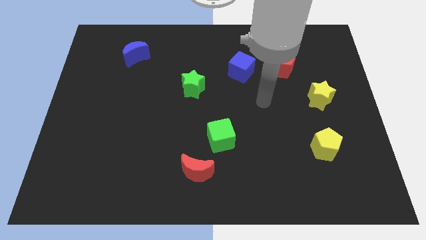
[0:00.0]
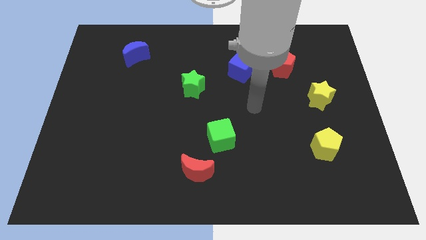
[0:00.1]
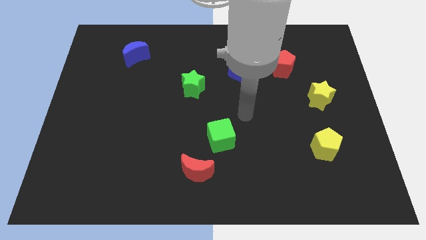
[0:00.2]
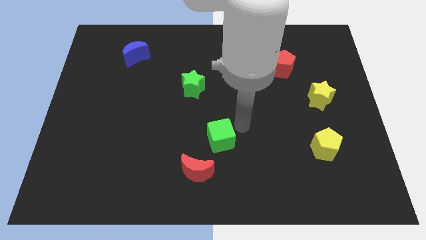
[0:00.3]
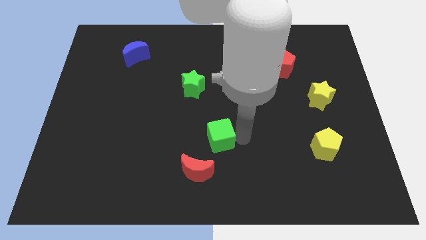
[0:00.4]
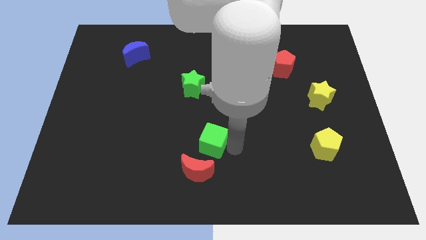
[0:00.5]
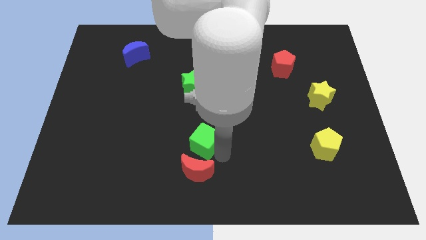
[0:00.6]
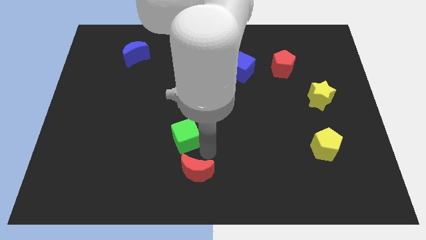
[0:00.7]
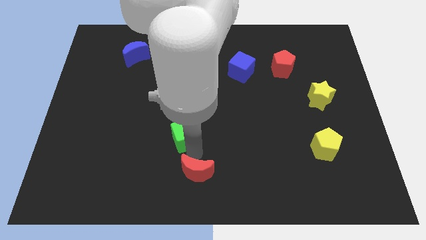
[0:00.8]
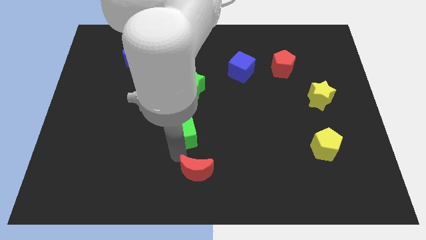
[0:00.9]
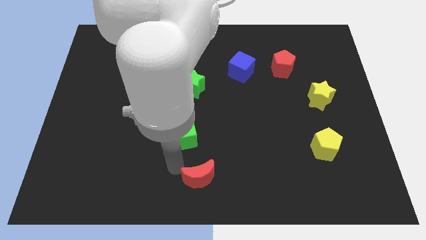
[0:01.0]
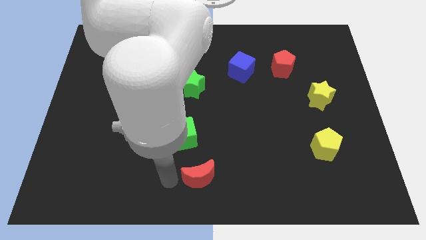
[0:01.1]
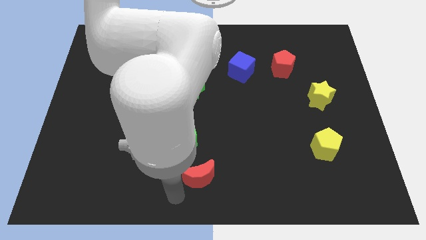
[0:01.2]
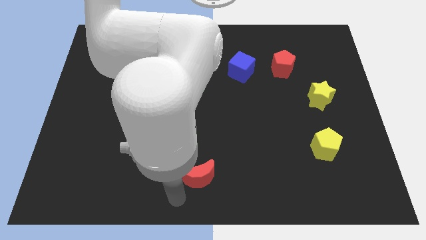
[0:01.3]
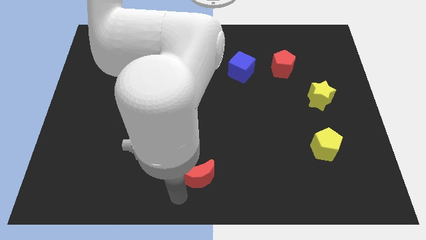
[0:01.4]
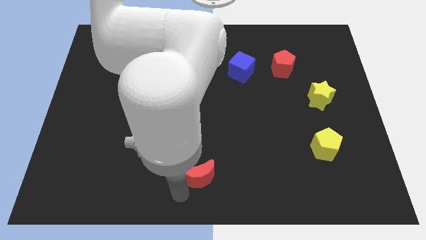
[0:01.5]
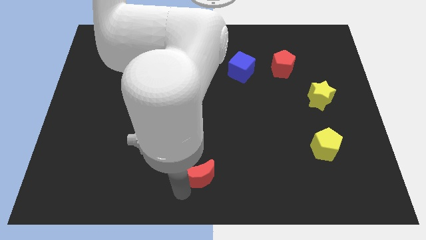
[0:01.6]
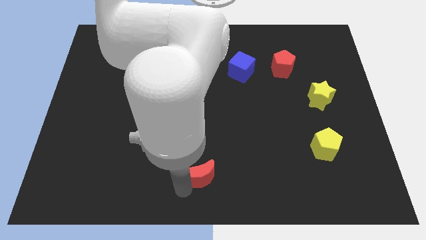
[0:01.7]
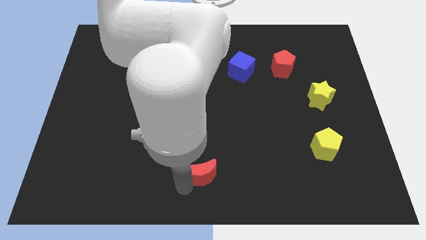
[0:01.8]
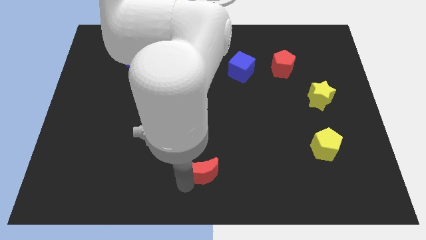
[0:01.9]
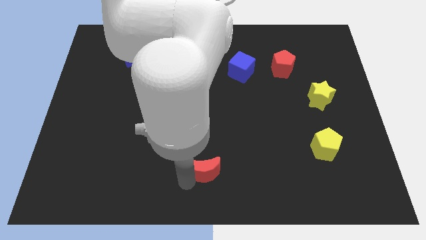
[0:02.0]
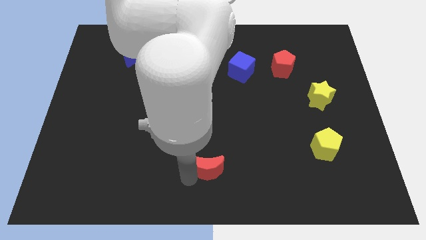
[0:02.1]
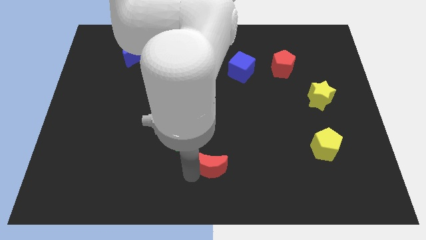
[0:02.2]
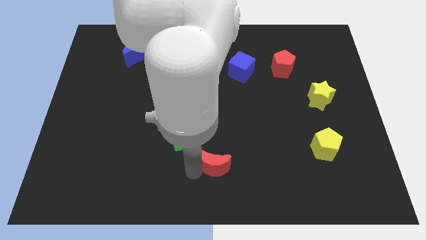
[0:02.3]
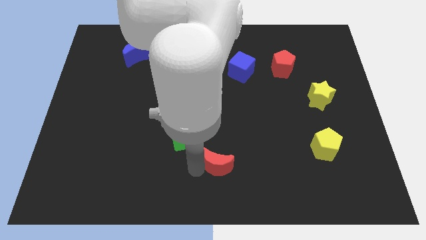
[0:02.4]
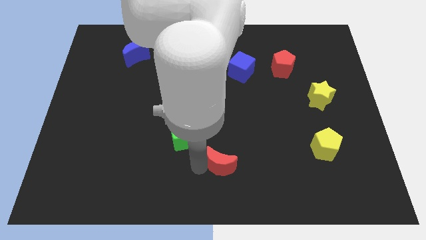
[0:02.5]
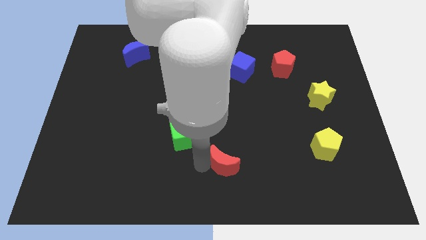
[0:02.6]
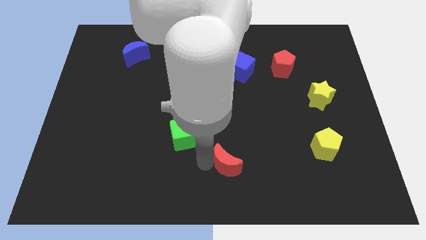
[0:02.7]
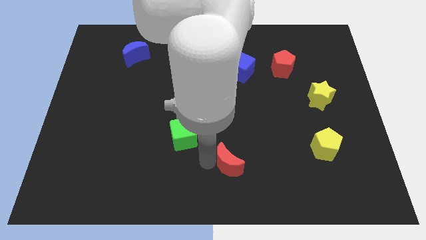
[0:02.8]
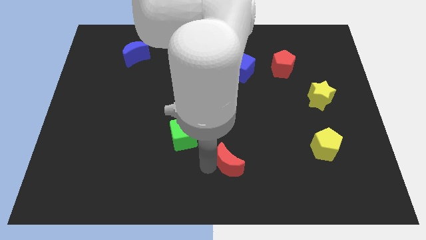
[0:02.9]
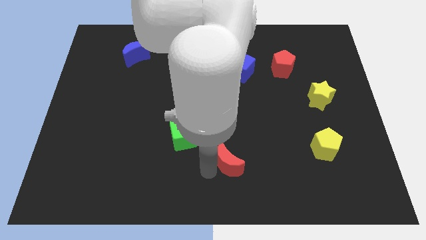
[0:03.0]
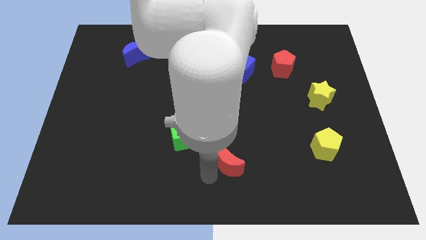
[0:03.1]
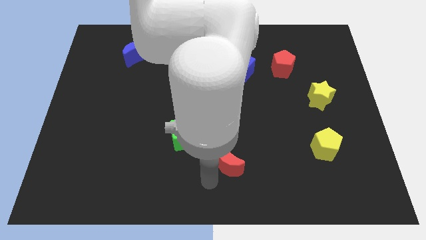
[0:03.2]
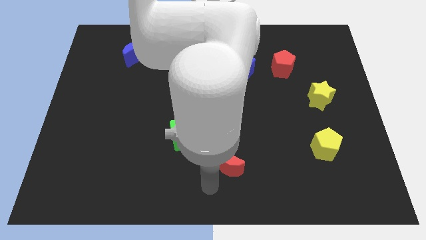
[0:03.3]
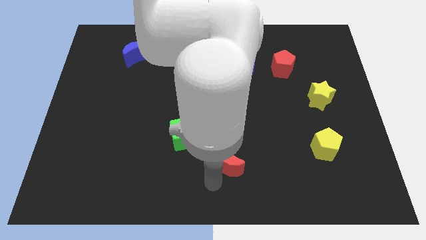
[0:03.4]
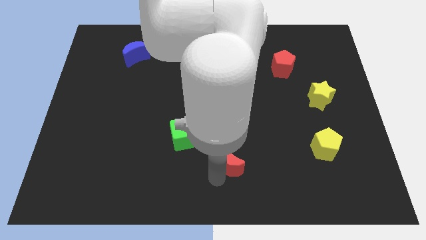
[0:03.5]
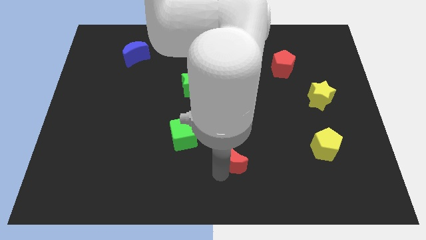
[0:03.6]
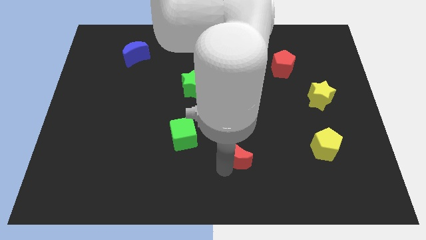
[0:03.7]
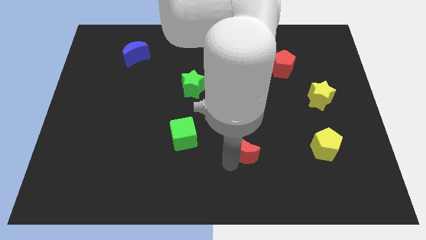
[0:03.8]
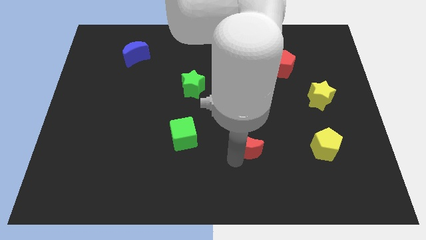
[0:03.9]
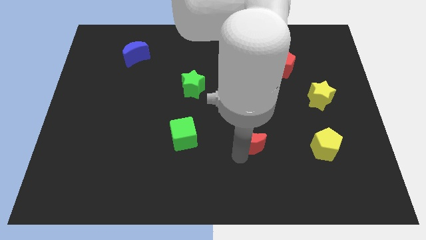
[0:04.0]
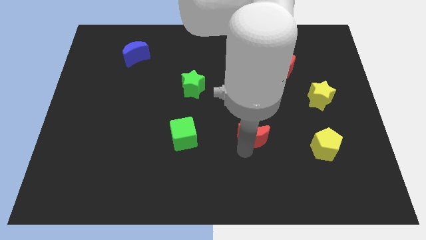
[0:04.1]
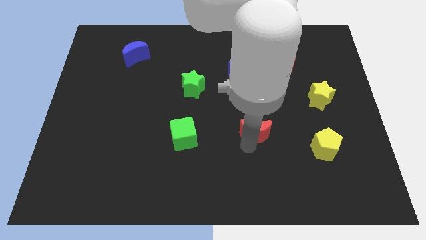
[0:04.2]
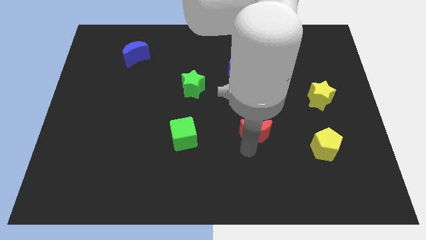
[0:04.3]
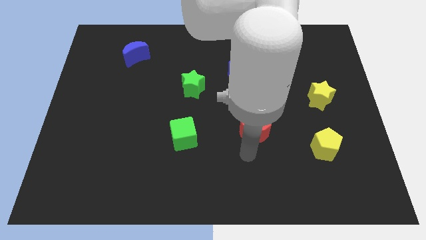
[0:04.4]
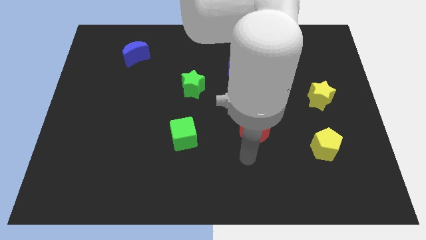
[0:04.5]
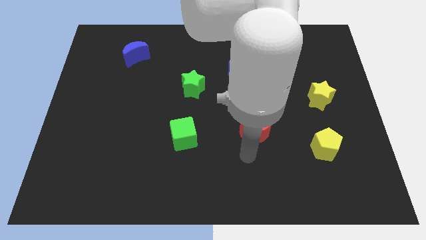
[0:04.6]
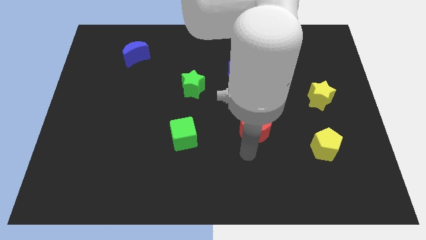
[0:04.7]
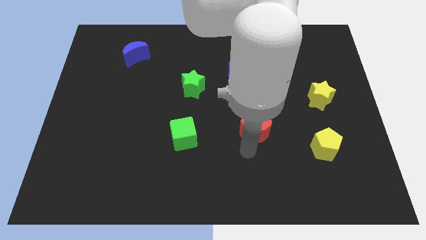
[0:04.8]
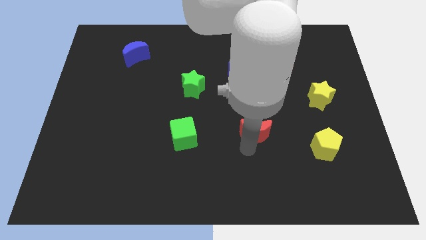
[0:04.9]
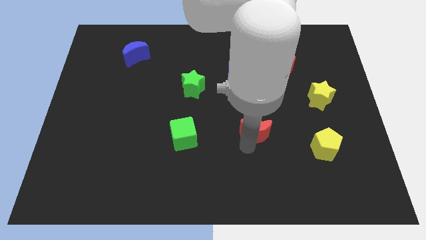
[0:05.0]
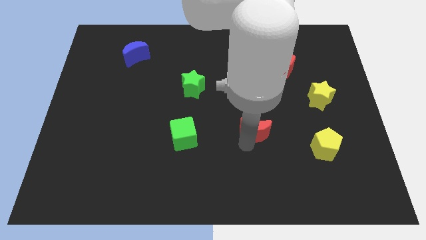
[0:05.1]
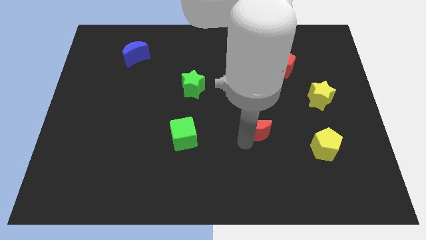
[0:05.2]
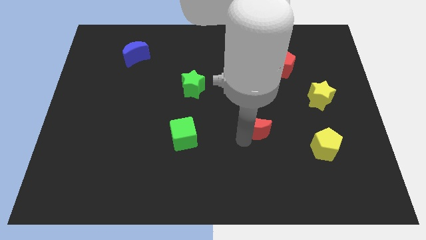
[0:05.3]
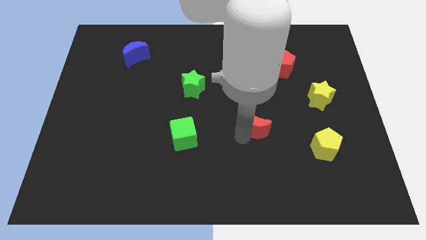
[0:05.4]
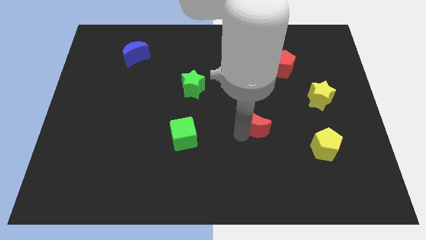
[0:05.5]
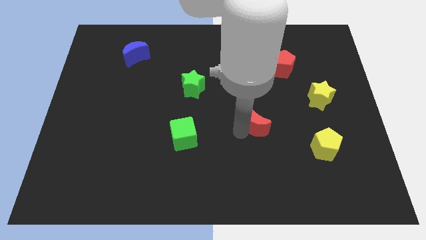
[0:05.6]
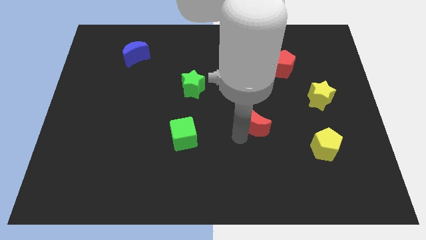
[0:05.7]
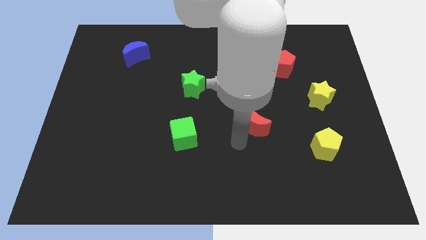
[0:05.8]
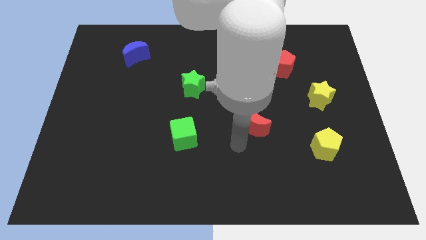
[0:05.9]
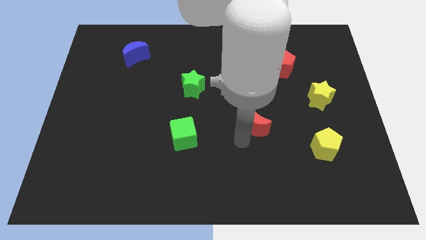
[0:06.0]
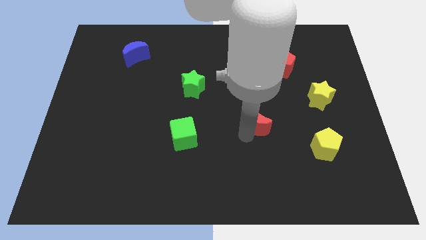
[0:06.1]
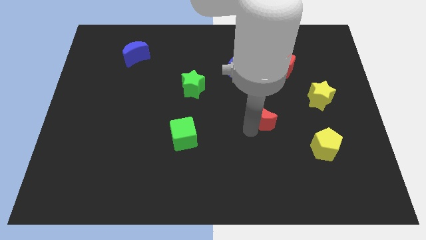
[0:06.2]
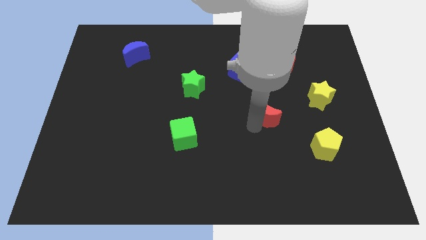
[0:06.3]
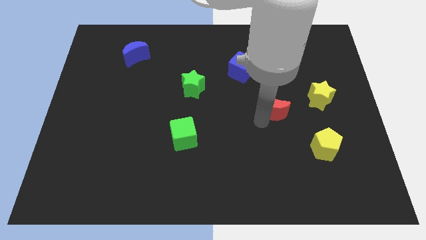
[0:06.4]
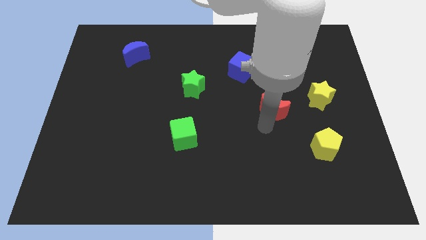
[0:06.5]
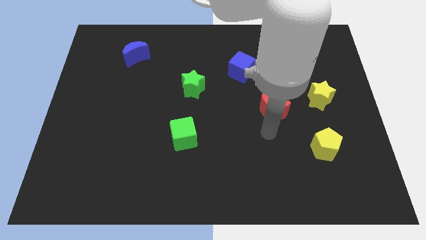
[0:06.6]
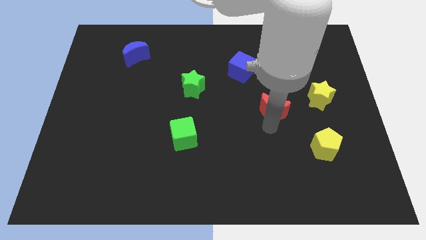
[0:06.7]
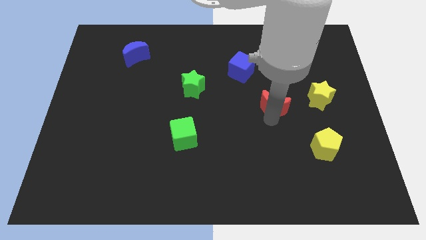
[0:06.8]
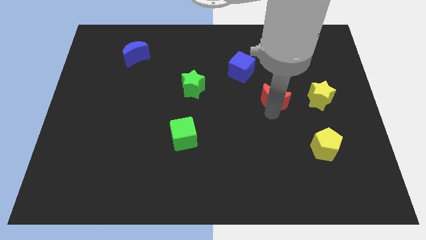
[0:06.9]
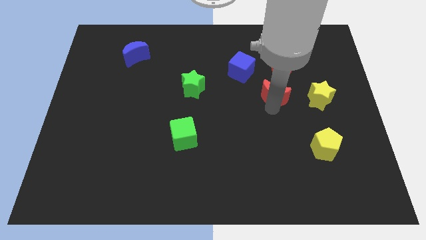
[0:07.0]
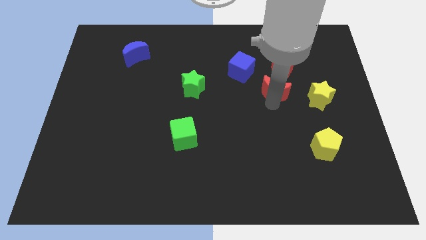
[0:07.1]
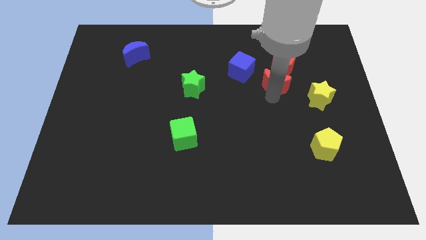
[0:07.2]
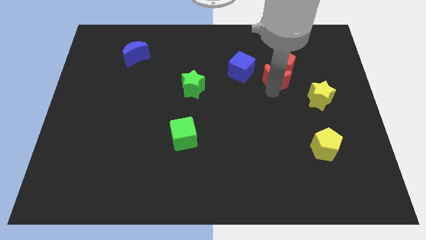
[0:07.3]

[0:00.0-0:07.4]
put the red moon towards the red pentagon
